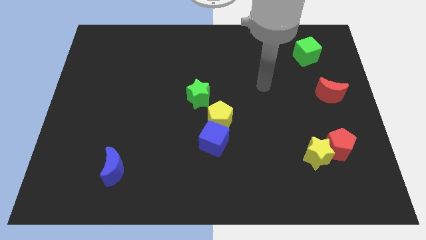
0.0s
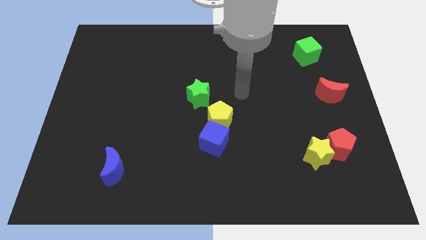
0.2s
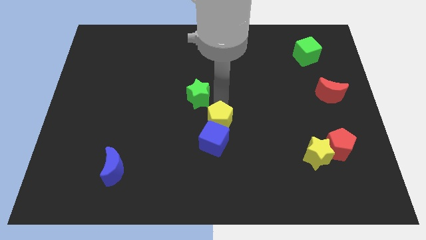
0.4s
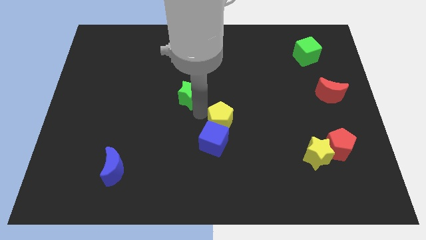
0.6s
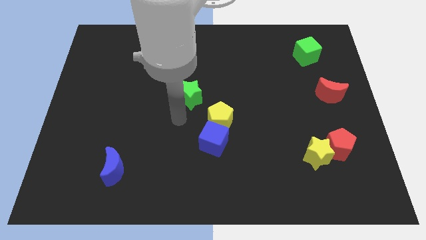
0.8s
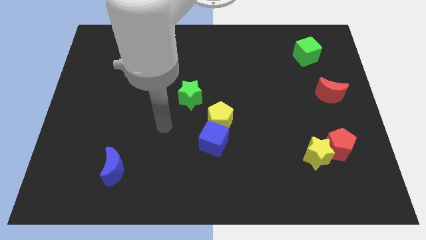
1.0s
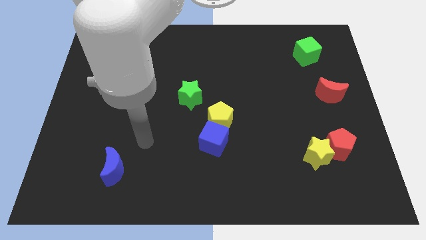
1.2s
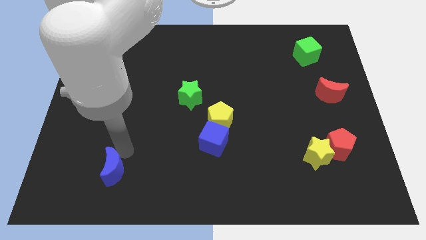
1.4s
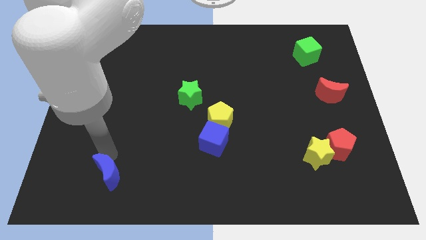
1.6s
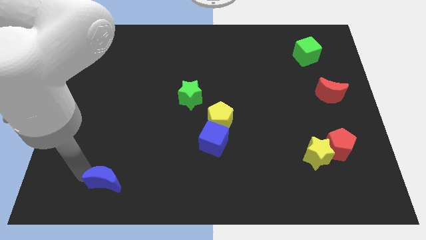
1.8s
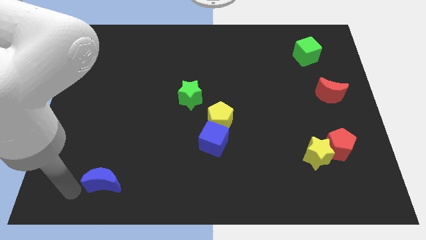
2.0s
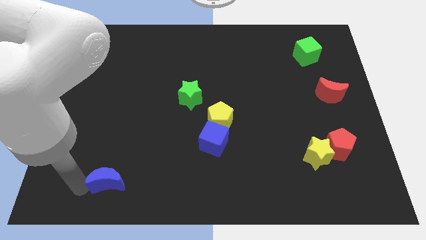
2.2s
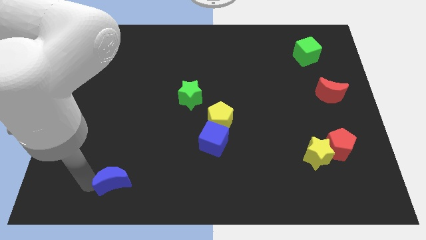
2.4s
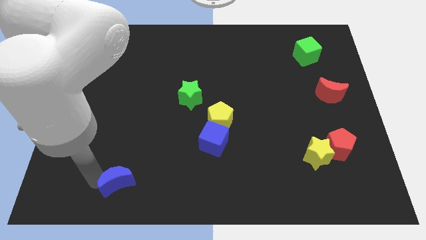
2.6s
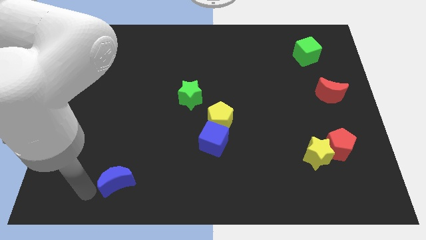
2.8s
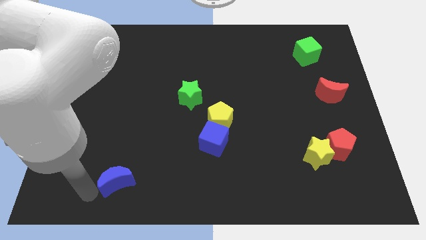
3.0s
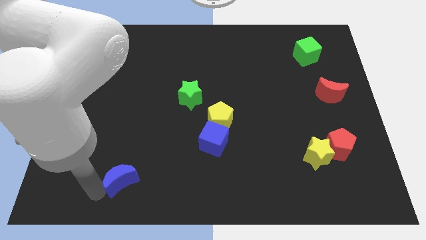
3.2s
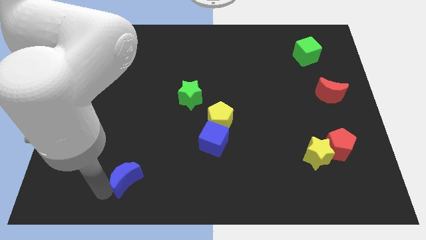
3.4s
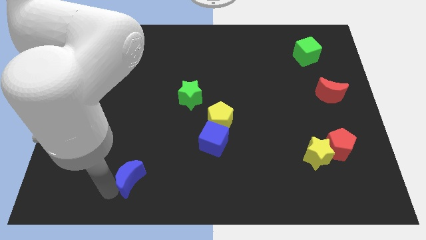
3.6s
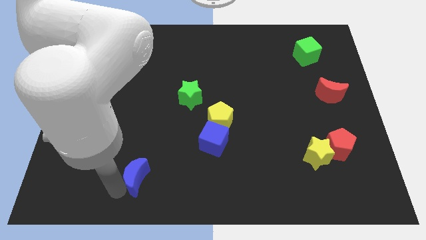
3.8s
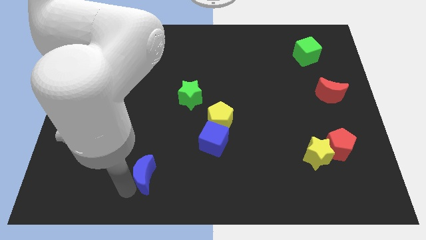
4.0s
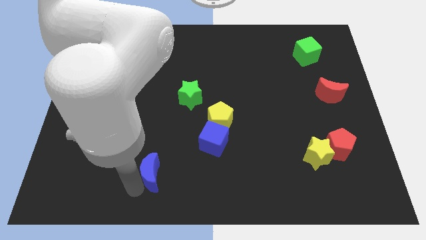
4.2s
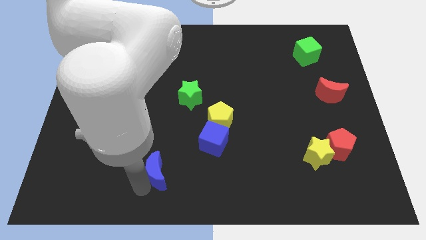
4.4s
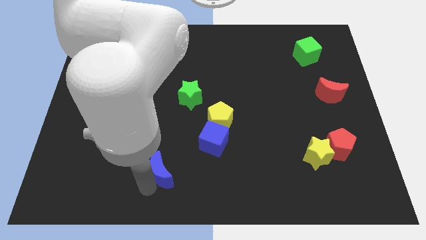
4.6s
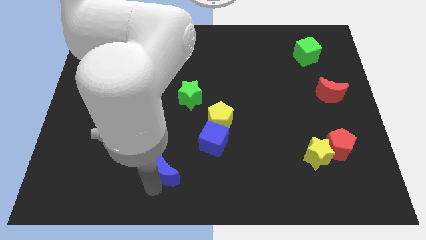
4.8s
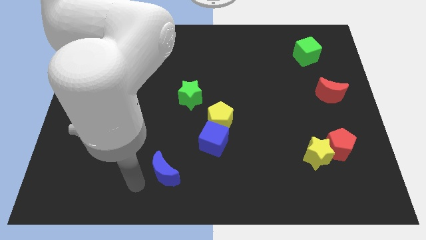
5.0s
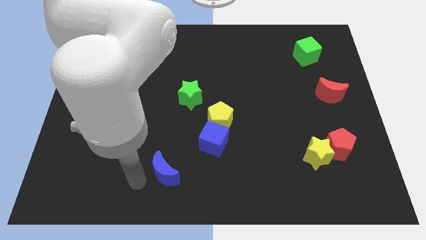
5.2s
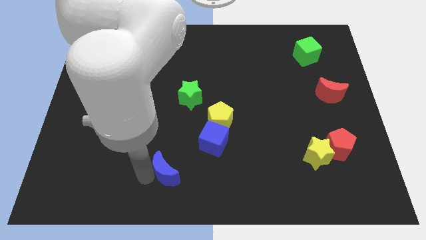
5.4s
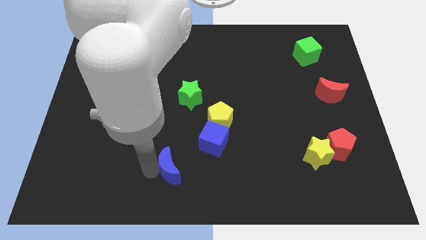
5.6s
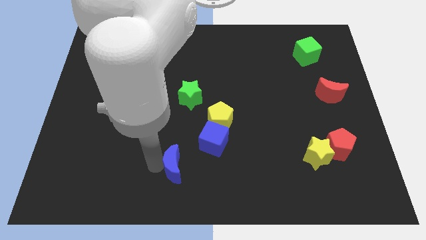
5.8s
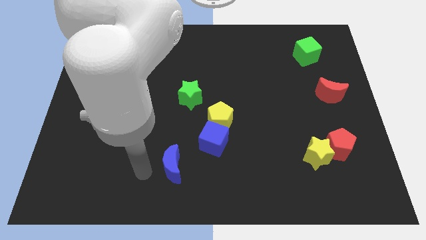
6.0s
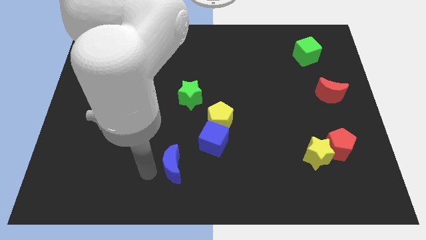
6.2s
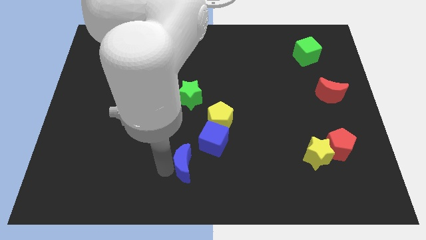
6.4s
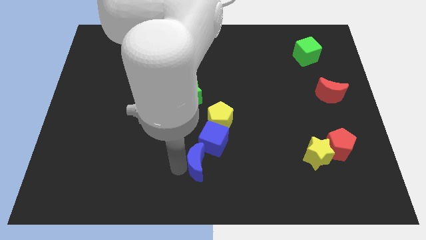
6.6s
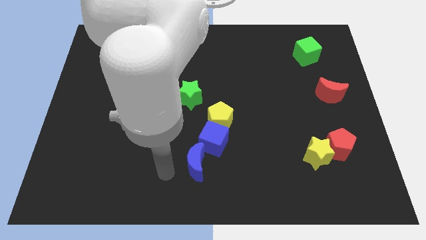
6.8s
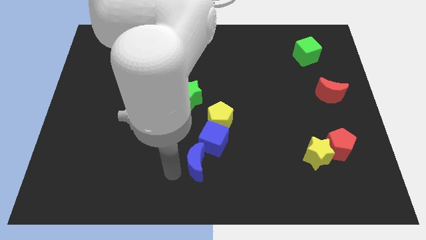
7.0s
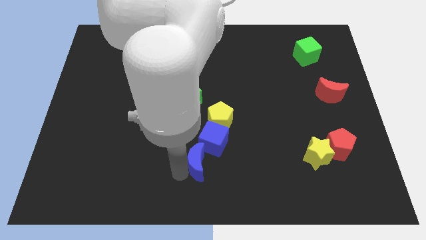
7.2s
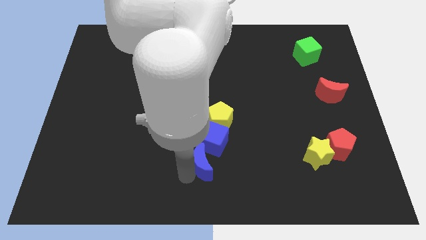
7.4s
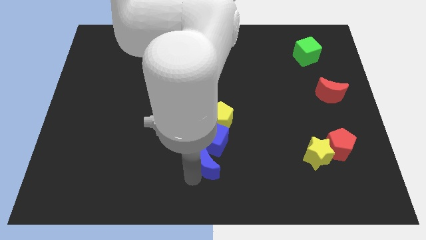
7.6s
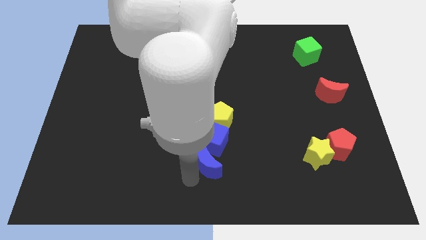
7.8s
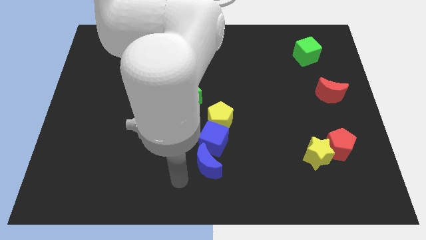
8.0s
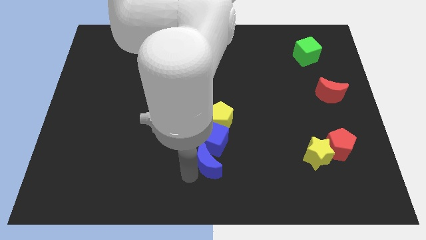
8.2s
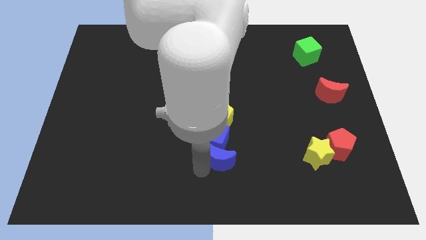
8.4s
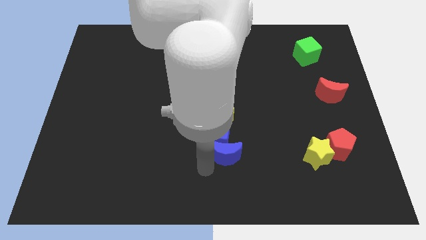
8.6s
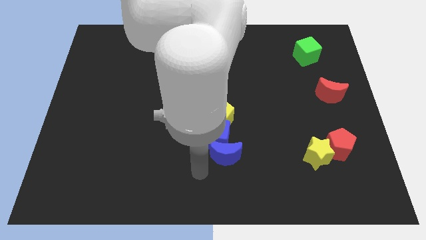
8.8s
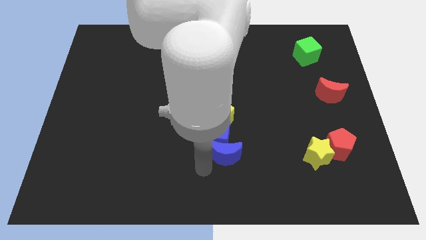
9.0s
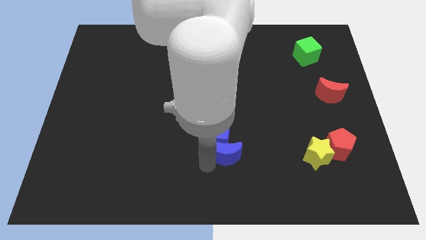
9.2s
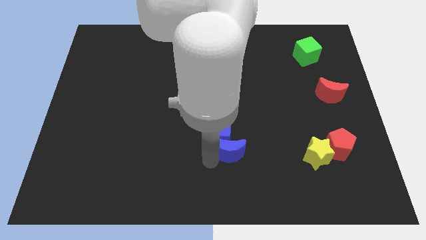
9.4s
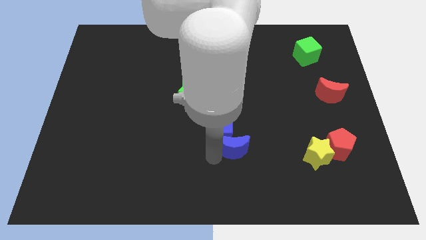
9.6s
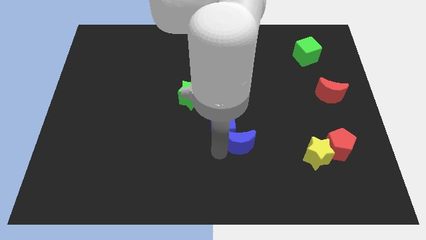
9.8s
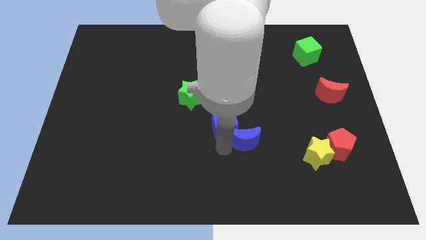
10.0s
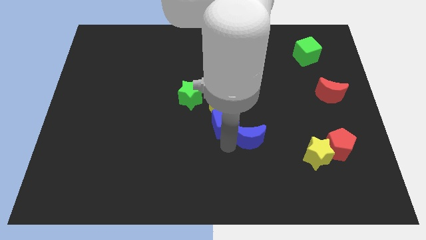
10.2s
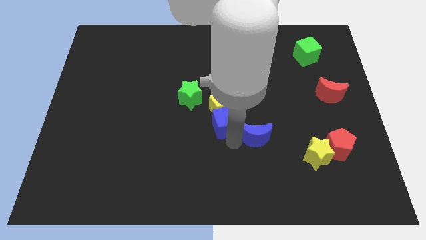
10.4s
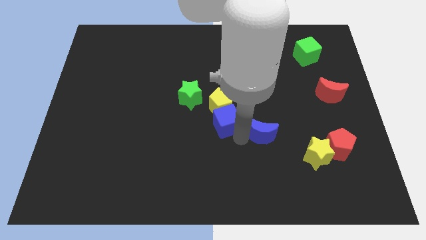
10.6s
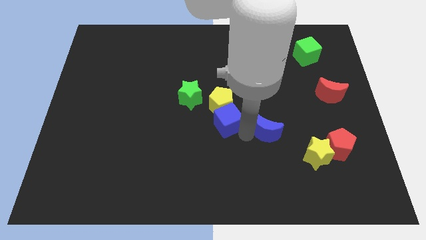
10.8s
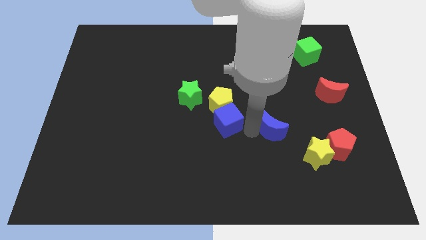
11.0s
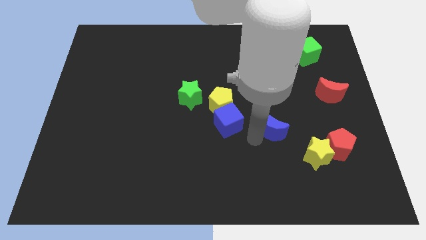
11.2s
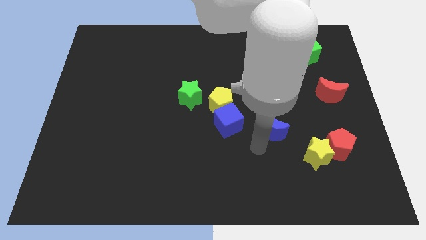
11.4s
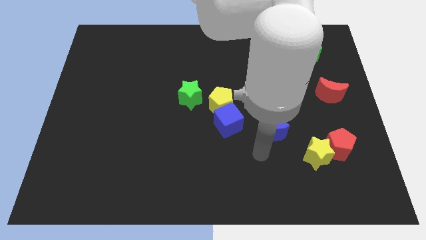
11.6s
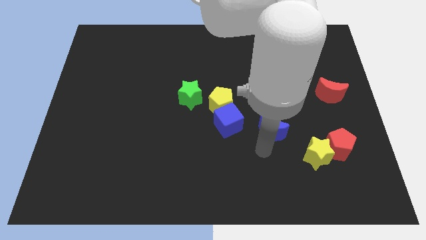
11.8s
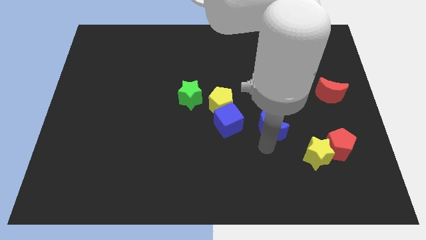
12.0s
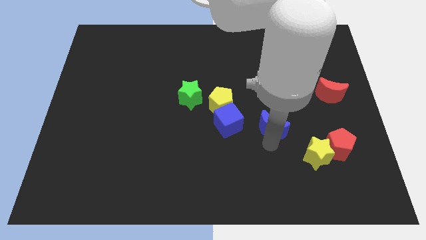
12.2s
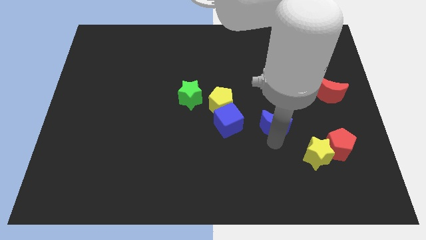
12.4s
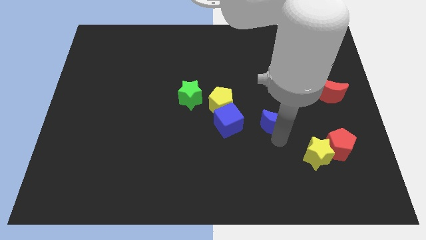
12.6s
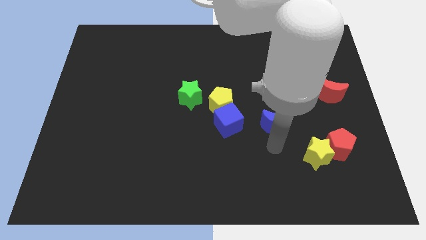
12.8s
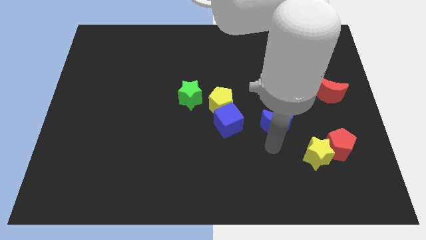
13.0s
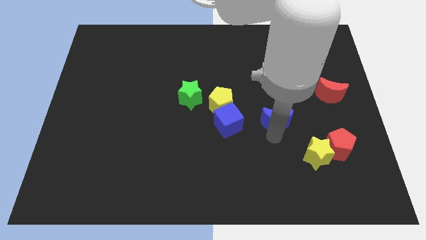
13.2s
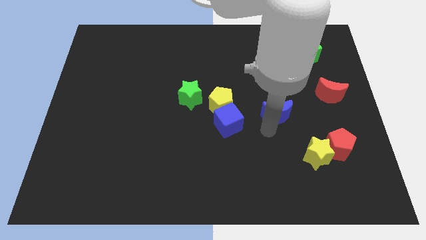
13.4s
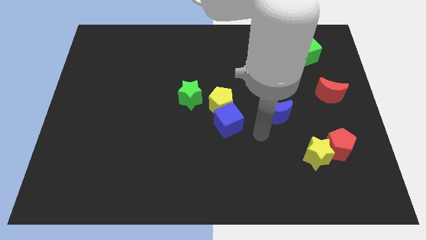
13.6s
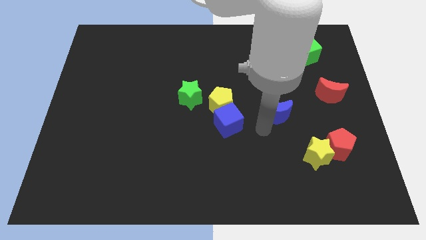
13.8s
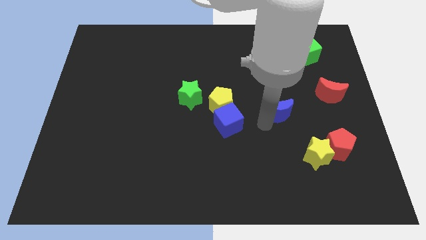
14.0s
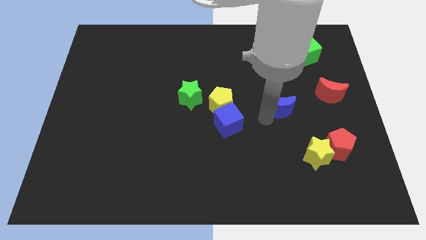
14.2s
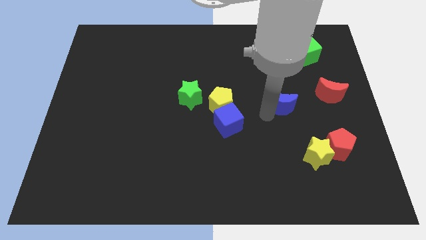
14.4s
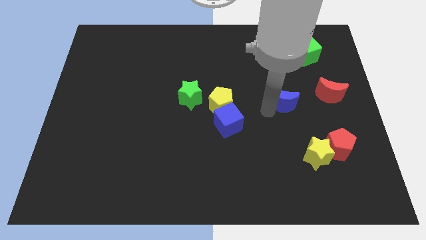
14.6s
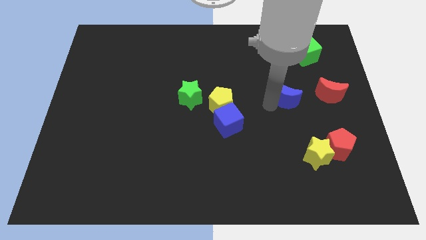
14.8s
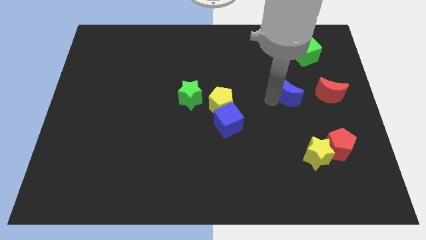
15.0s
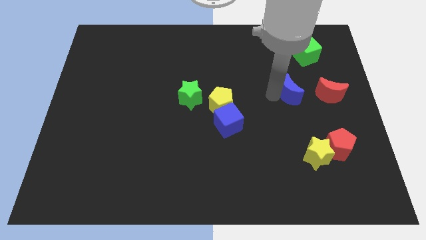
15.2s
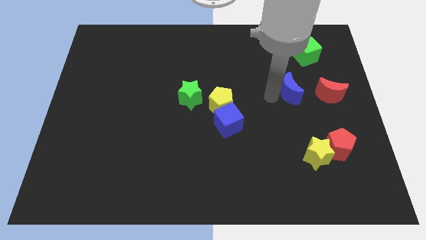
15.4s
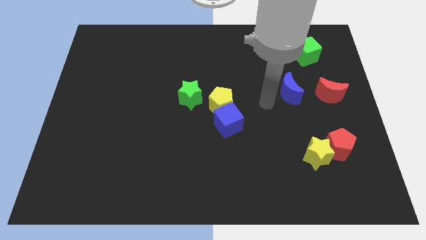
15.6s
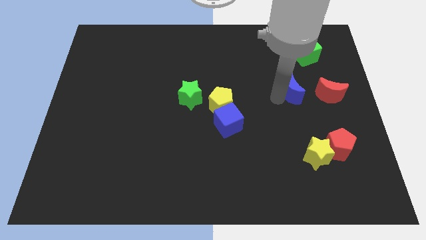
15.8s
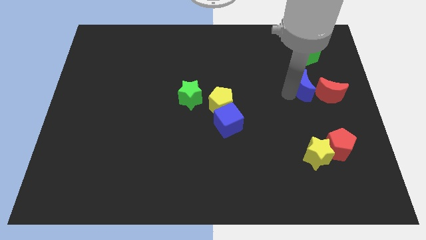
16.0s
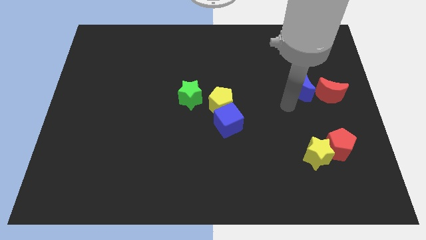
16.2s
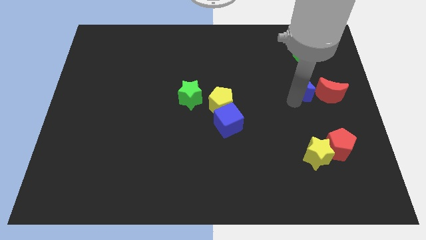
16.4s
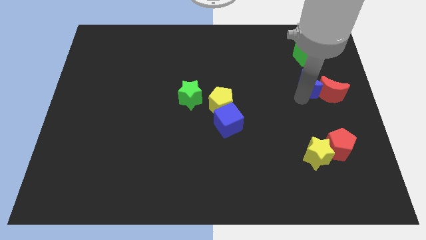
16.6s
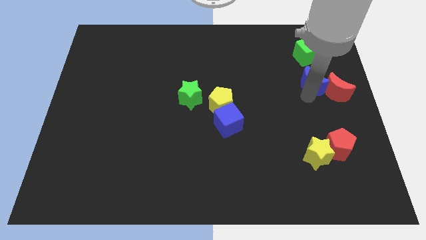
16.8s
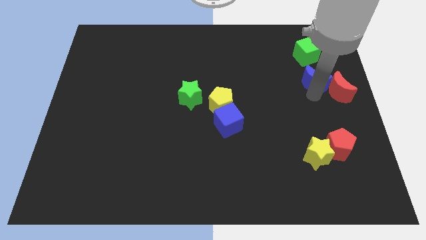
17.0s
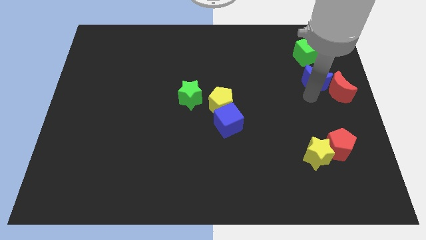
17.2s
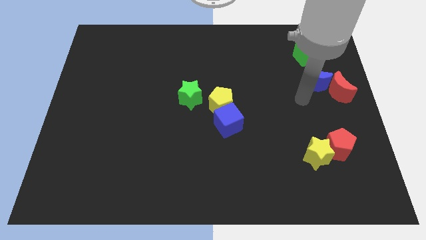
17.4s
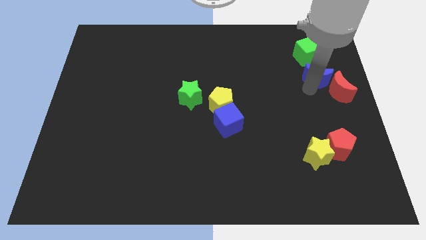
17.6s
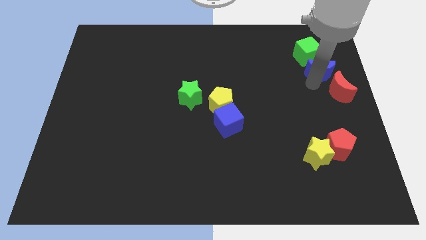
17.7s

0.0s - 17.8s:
put the blue moon above the red moon
